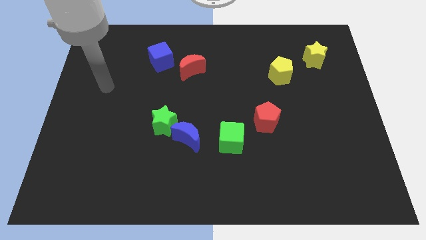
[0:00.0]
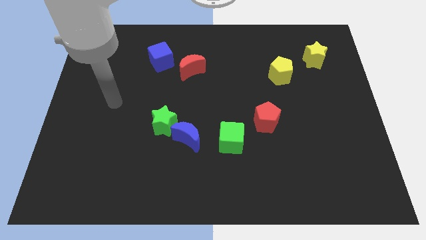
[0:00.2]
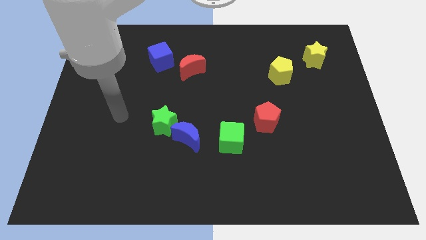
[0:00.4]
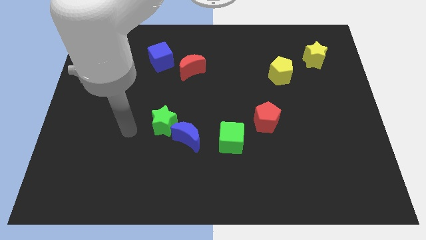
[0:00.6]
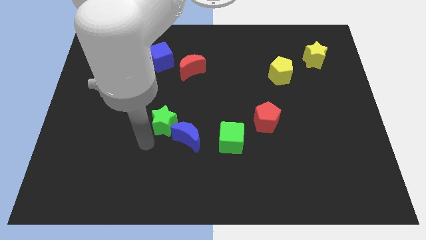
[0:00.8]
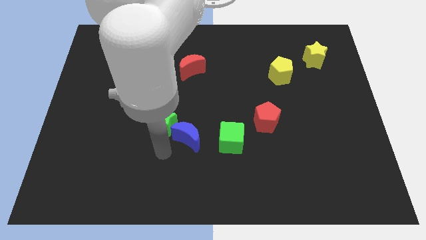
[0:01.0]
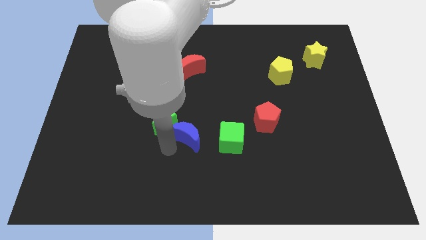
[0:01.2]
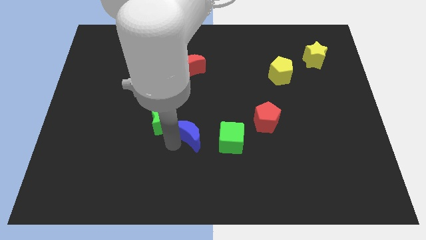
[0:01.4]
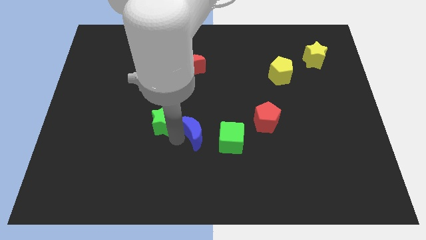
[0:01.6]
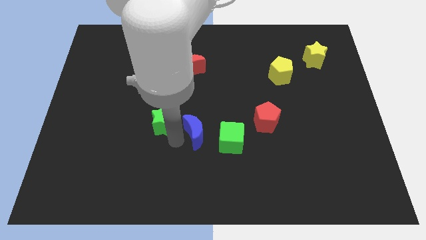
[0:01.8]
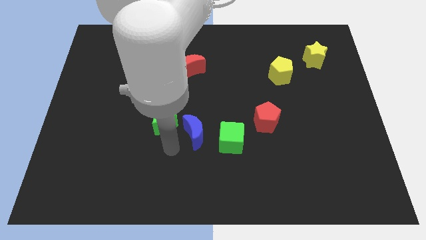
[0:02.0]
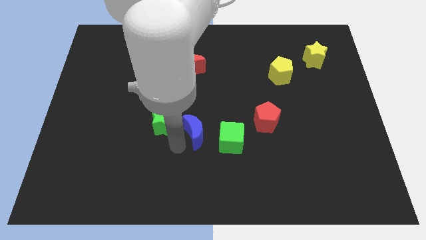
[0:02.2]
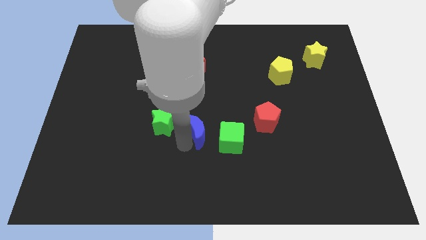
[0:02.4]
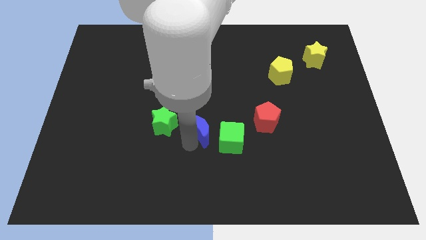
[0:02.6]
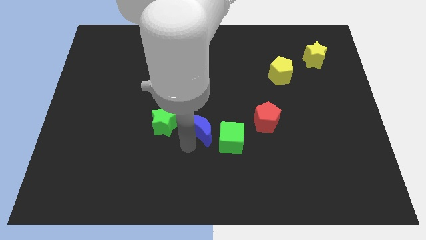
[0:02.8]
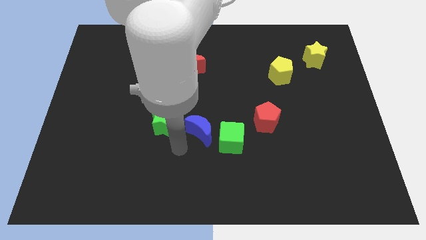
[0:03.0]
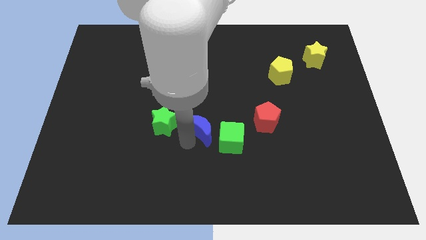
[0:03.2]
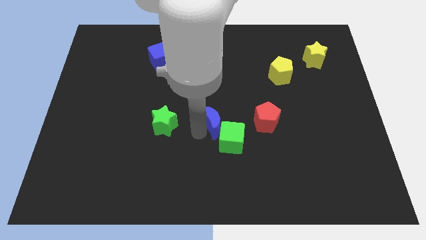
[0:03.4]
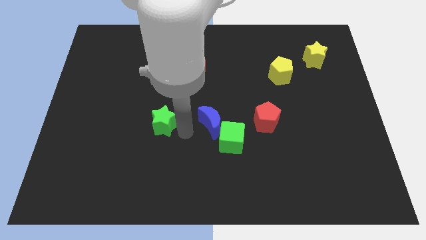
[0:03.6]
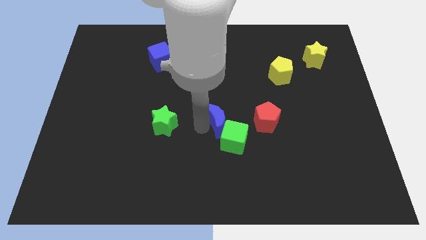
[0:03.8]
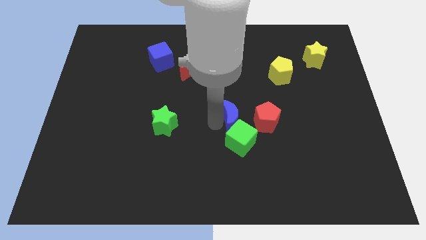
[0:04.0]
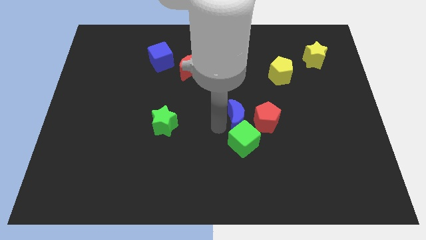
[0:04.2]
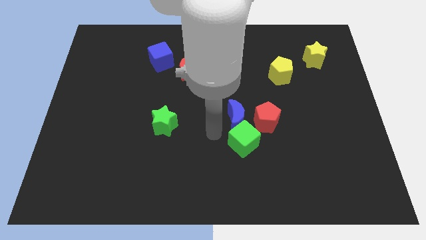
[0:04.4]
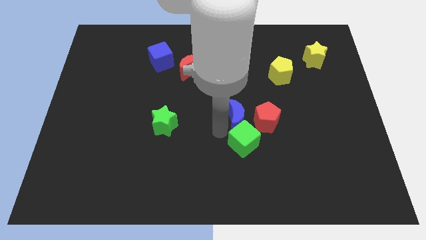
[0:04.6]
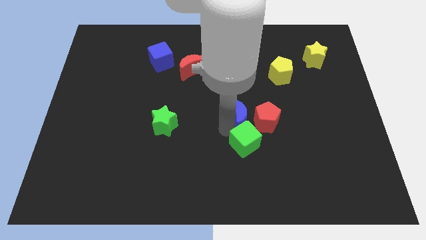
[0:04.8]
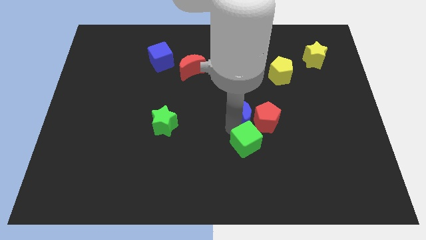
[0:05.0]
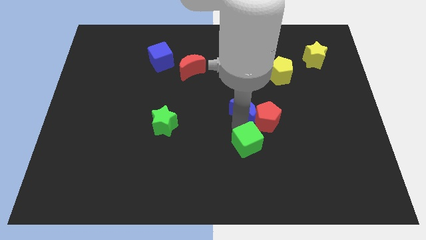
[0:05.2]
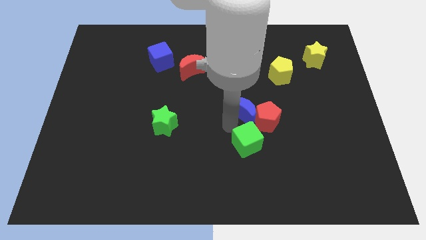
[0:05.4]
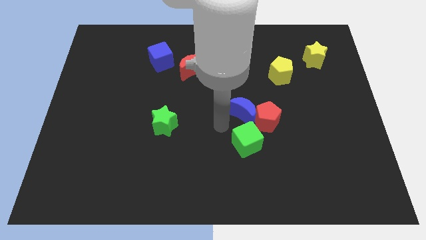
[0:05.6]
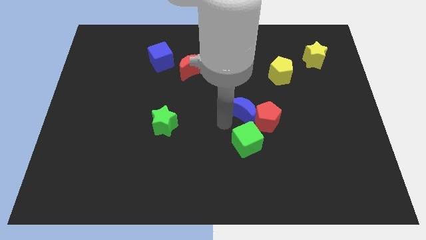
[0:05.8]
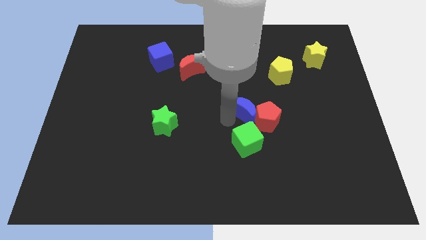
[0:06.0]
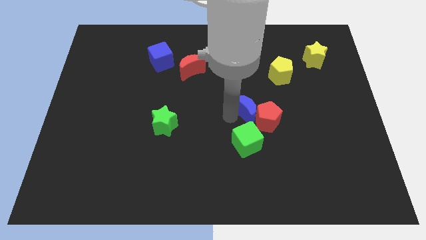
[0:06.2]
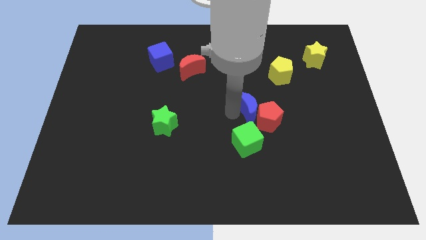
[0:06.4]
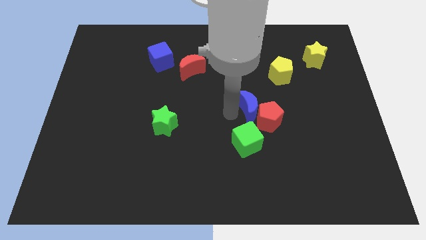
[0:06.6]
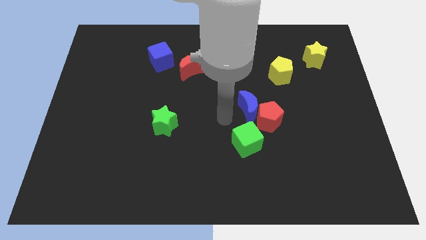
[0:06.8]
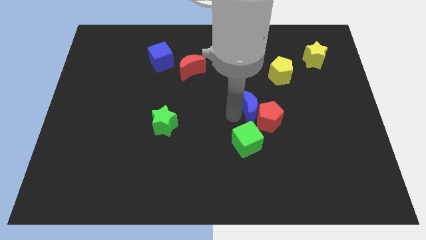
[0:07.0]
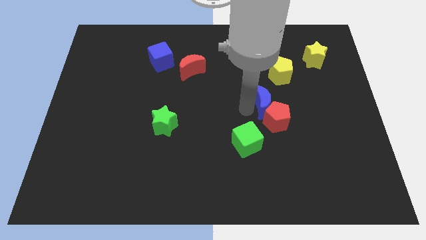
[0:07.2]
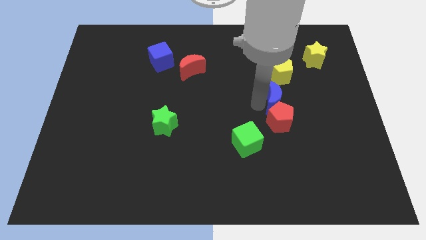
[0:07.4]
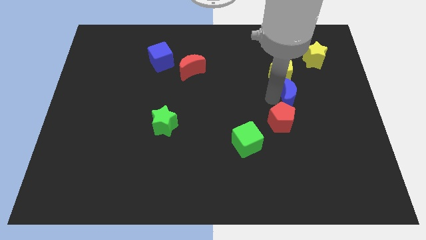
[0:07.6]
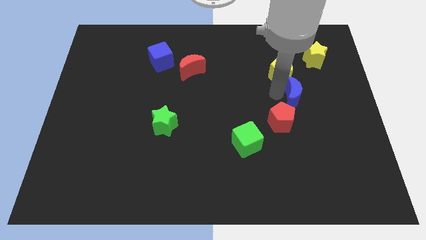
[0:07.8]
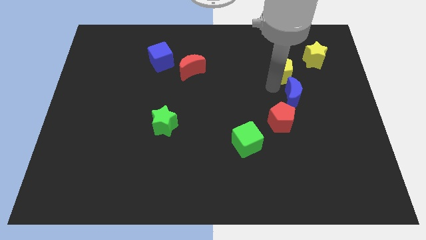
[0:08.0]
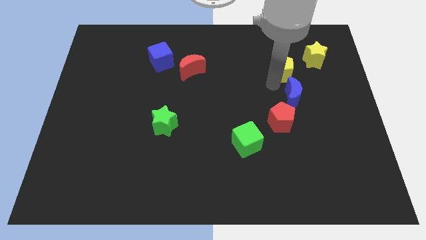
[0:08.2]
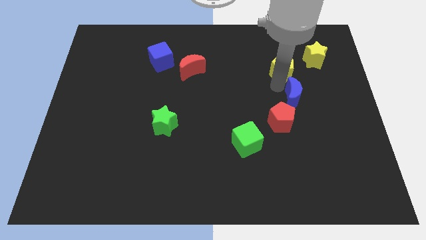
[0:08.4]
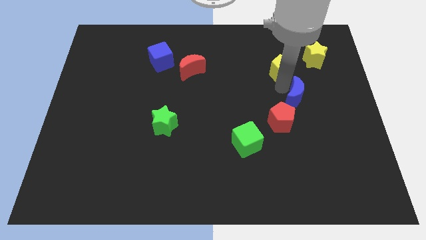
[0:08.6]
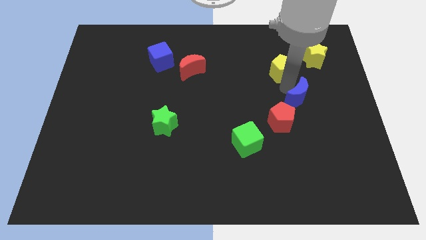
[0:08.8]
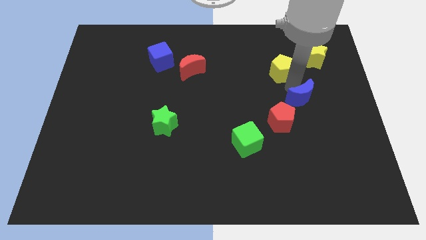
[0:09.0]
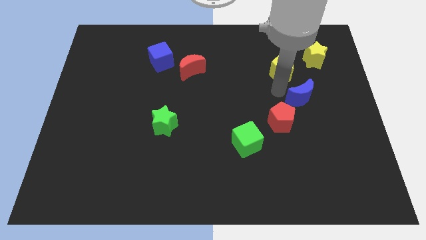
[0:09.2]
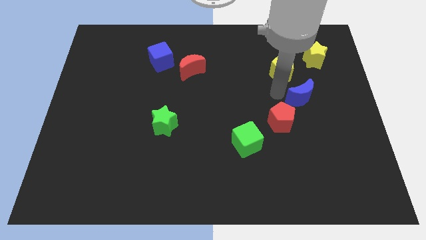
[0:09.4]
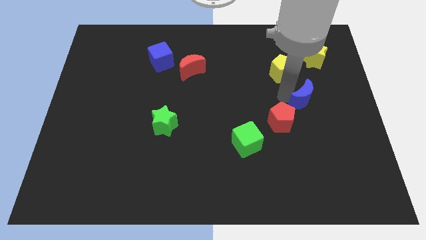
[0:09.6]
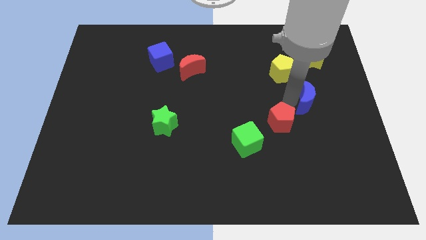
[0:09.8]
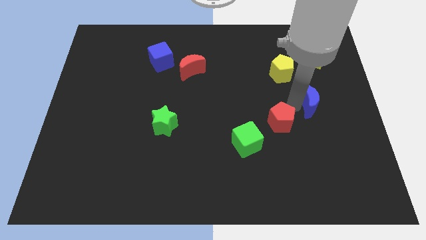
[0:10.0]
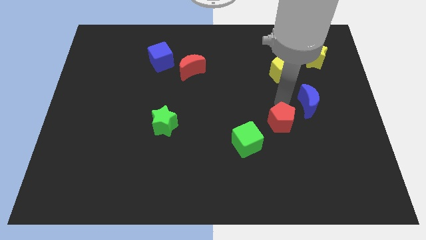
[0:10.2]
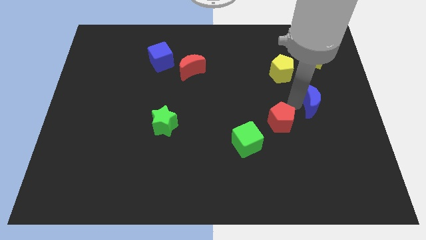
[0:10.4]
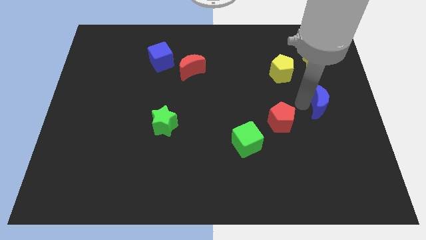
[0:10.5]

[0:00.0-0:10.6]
put the blue moon to the center right
